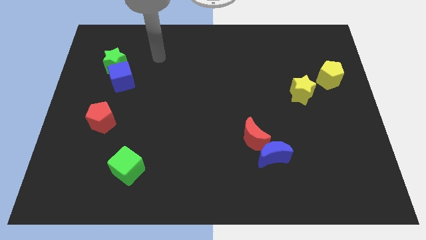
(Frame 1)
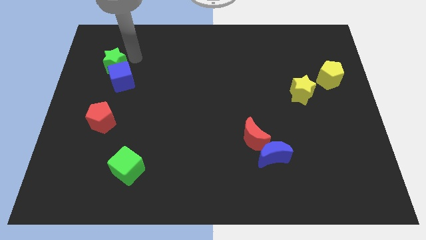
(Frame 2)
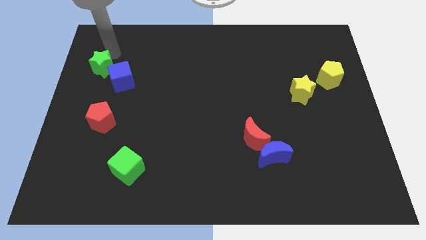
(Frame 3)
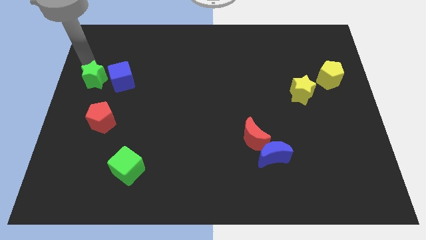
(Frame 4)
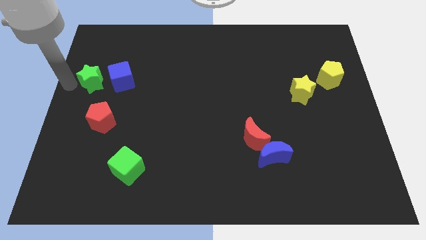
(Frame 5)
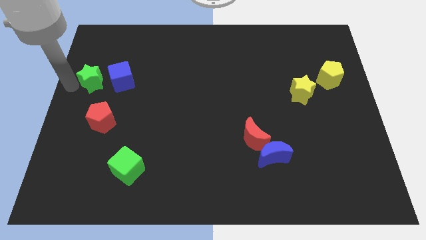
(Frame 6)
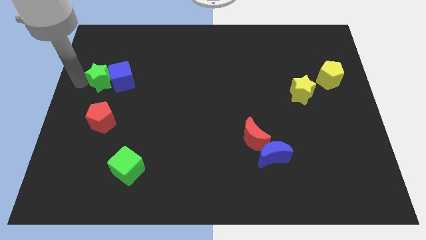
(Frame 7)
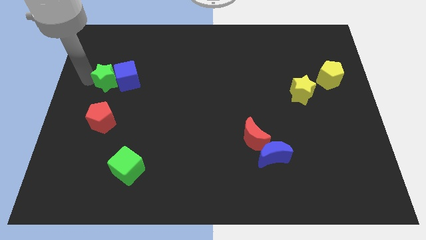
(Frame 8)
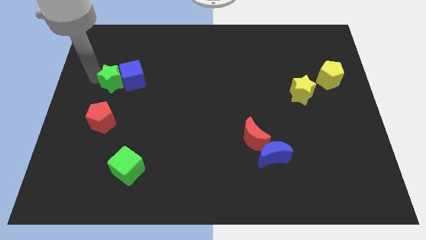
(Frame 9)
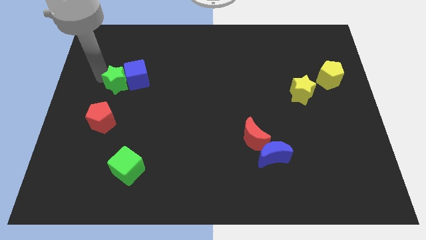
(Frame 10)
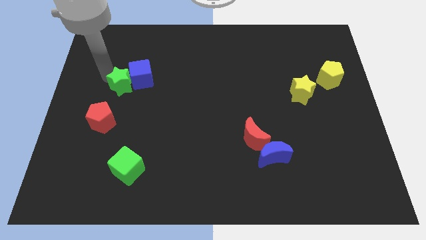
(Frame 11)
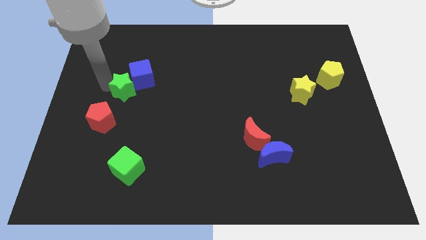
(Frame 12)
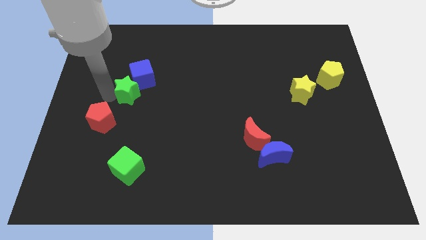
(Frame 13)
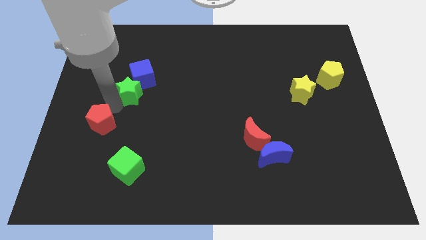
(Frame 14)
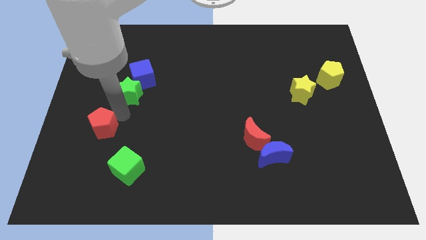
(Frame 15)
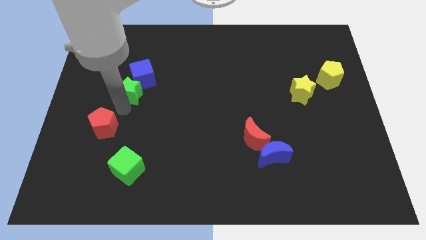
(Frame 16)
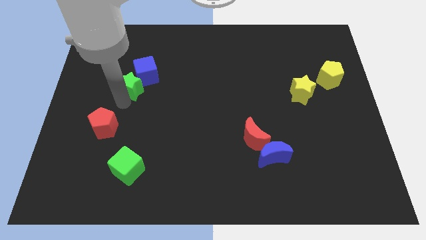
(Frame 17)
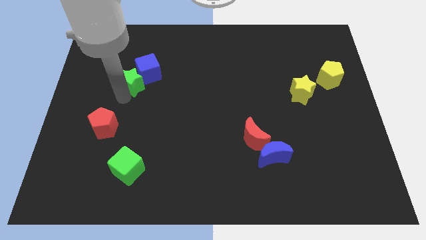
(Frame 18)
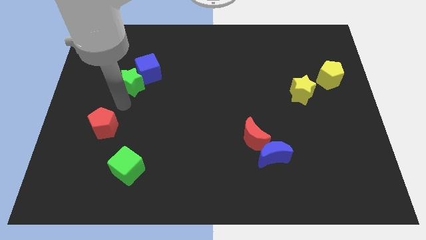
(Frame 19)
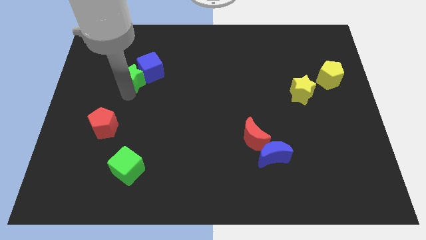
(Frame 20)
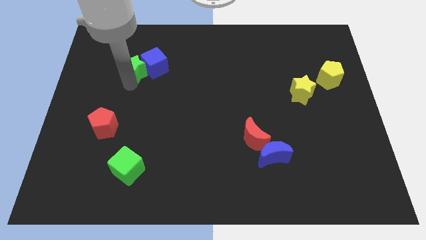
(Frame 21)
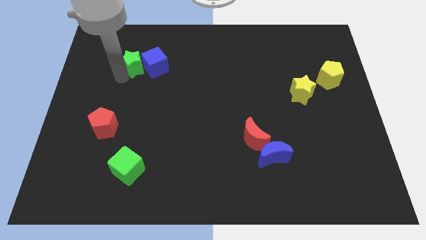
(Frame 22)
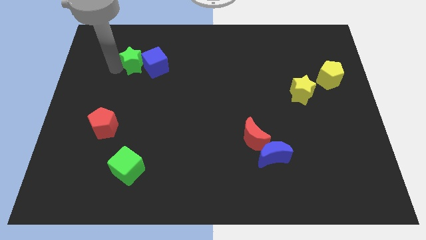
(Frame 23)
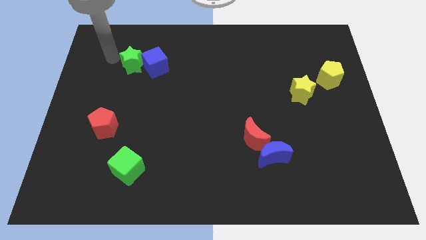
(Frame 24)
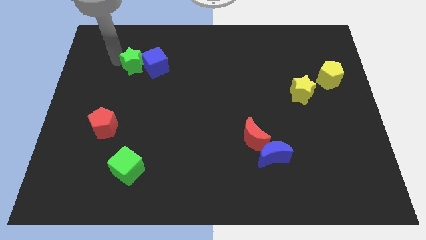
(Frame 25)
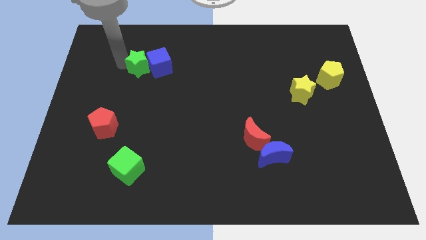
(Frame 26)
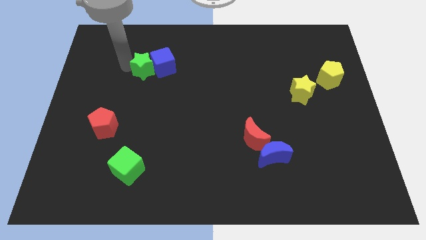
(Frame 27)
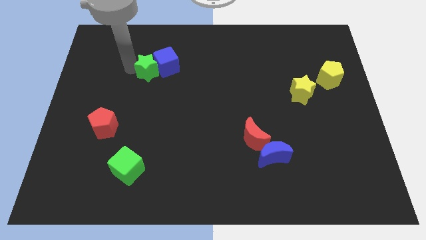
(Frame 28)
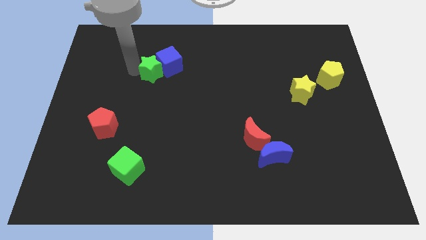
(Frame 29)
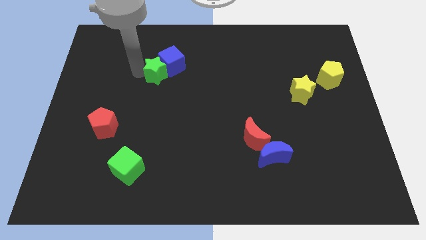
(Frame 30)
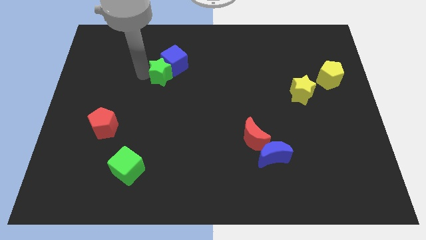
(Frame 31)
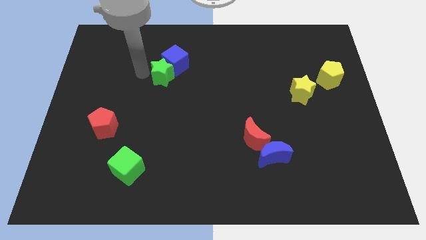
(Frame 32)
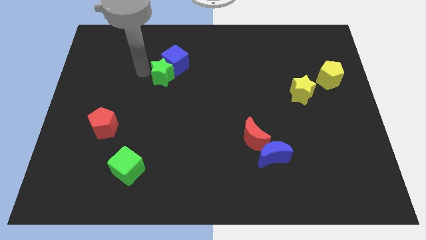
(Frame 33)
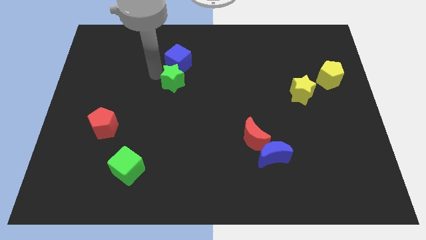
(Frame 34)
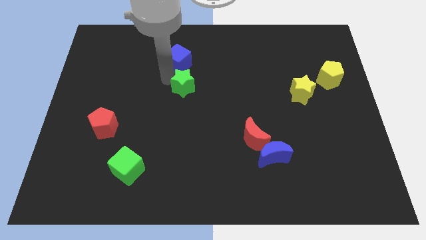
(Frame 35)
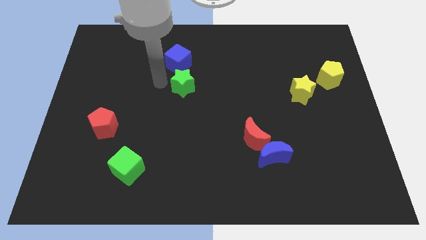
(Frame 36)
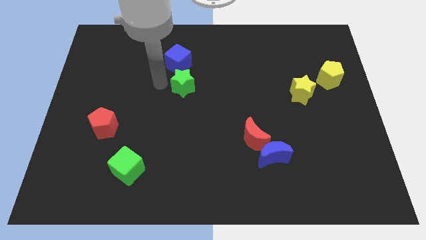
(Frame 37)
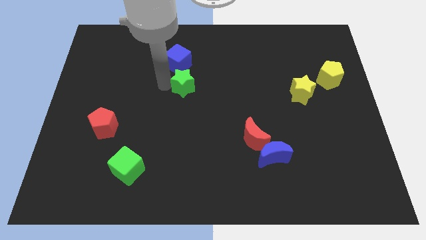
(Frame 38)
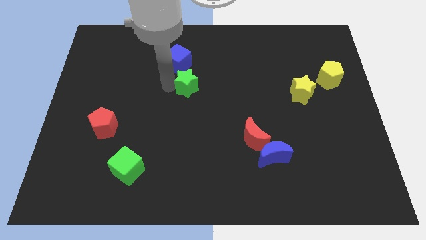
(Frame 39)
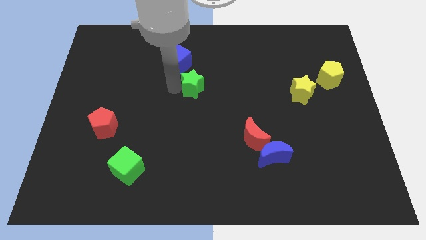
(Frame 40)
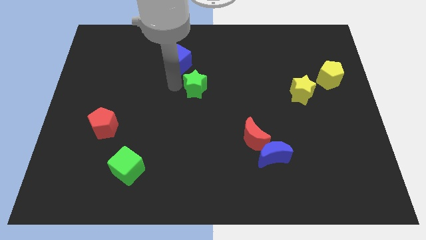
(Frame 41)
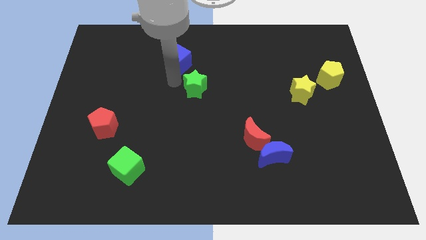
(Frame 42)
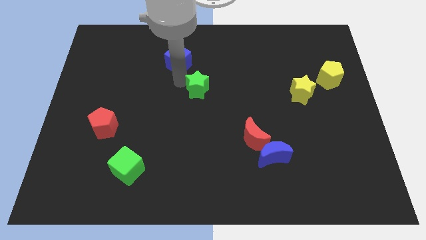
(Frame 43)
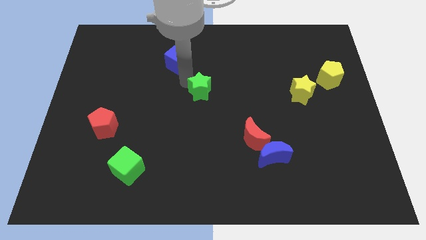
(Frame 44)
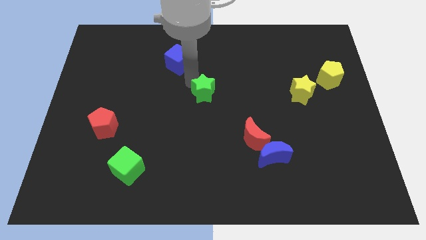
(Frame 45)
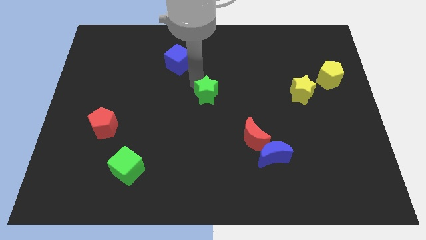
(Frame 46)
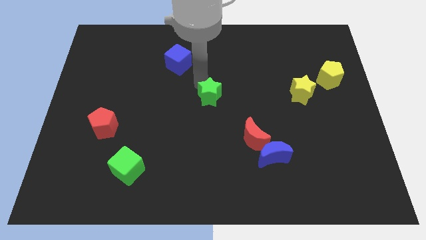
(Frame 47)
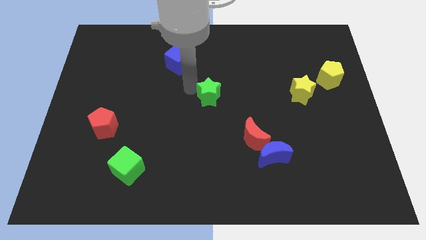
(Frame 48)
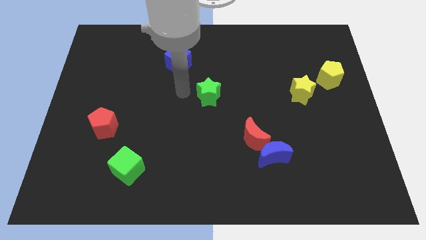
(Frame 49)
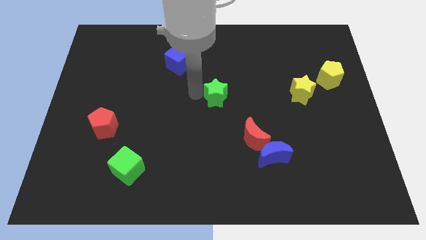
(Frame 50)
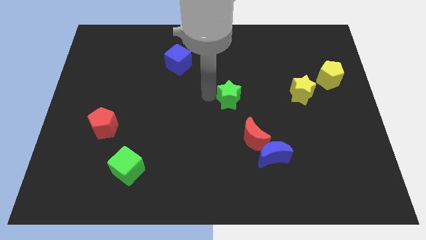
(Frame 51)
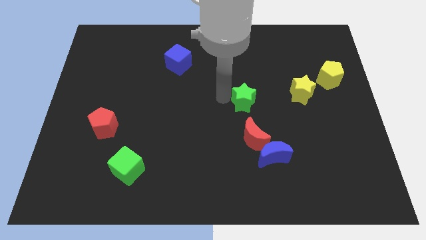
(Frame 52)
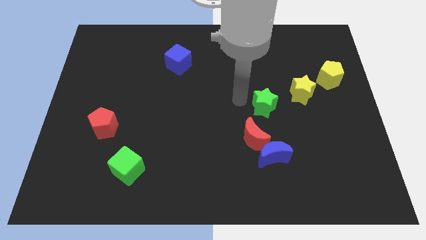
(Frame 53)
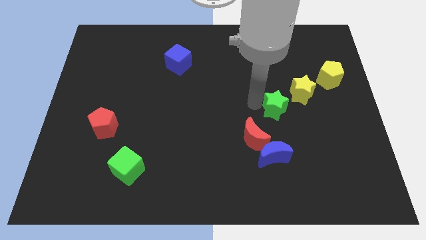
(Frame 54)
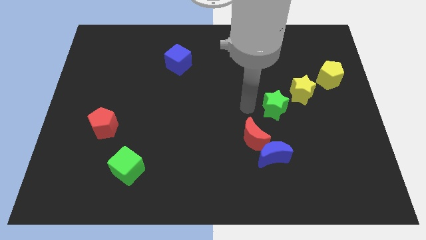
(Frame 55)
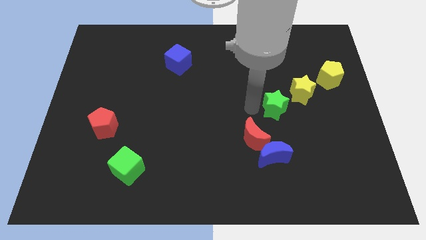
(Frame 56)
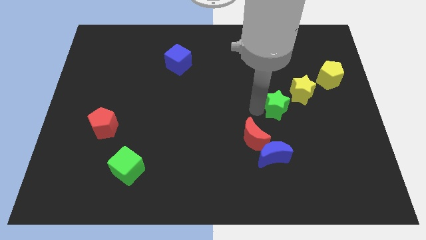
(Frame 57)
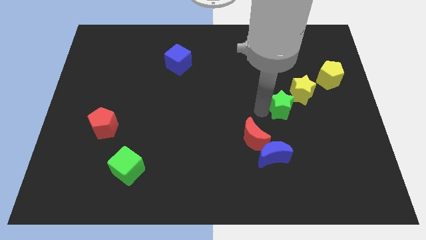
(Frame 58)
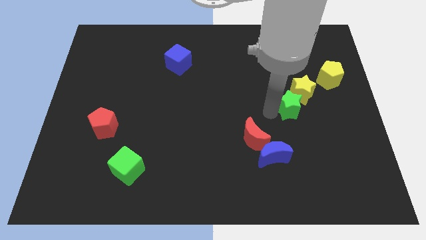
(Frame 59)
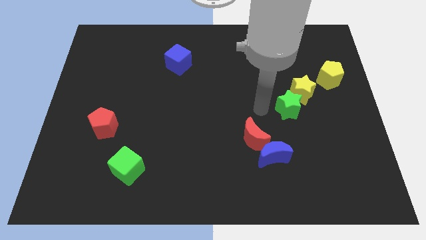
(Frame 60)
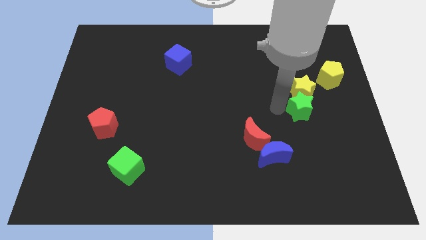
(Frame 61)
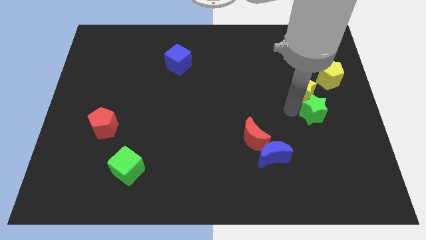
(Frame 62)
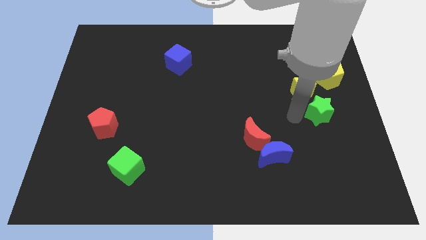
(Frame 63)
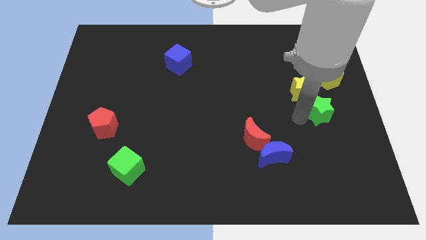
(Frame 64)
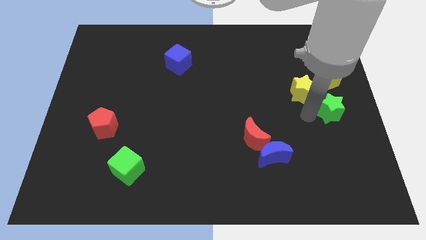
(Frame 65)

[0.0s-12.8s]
move the green star to the center right
